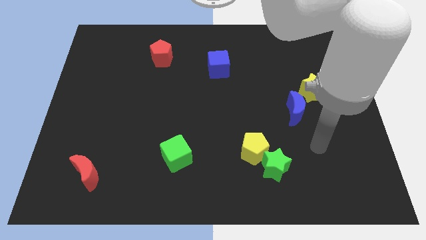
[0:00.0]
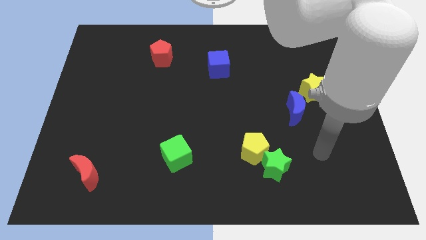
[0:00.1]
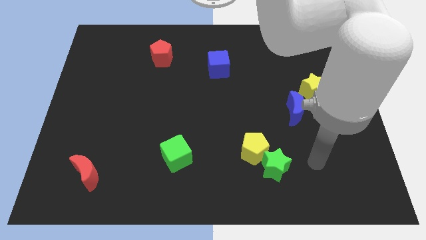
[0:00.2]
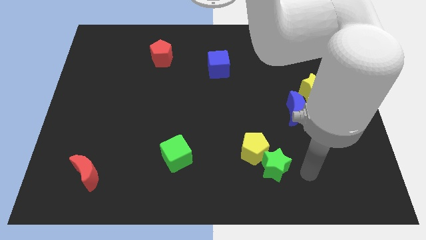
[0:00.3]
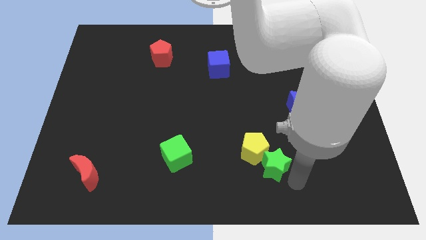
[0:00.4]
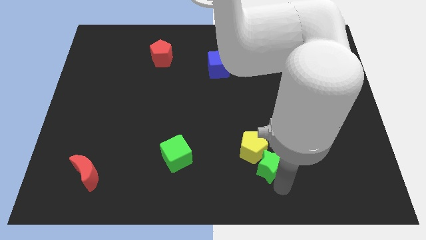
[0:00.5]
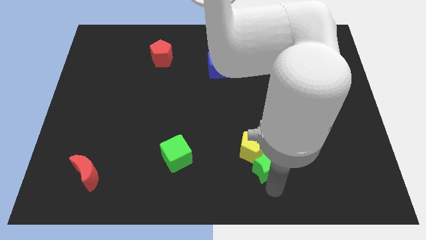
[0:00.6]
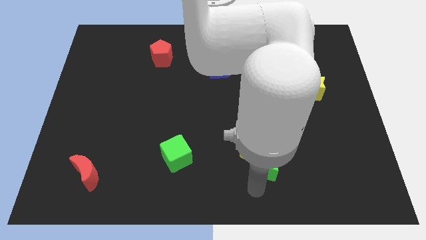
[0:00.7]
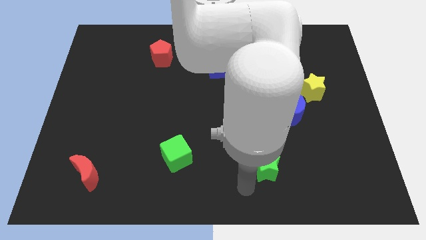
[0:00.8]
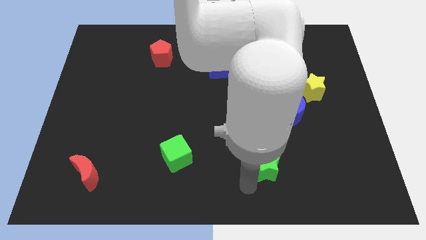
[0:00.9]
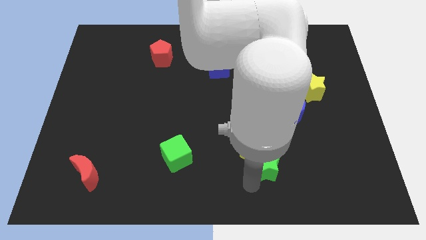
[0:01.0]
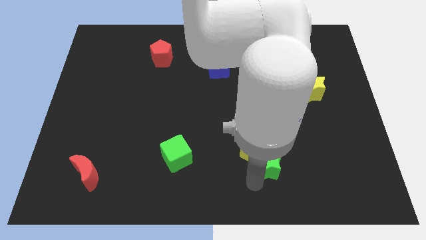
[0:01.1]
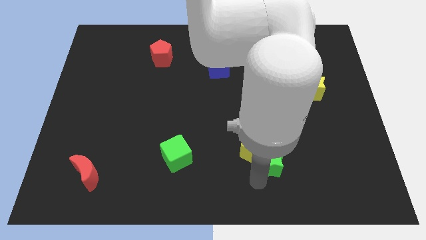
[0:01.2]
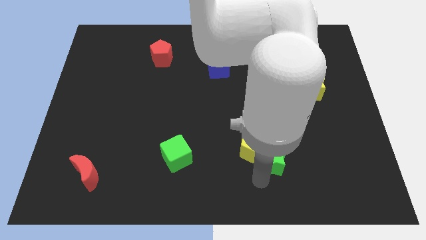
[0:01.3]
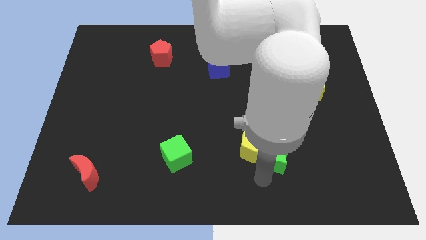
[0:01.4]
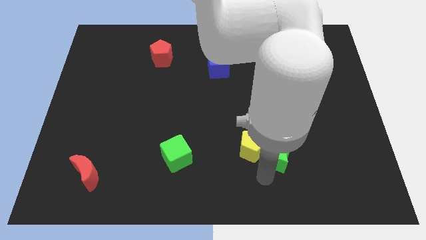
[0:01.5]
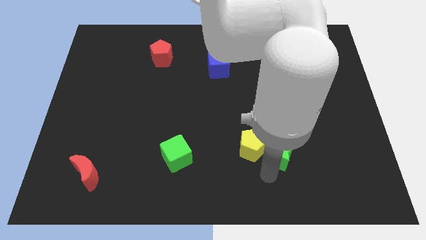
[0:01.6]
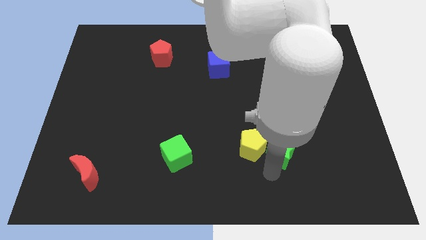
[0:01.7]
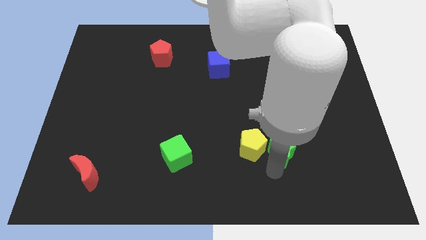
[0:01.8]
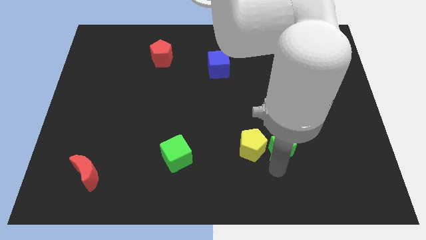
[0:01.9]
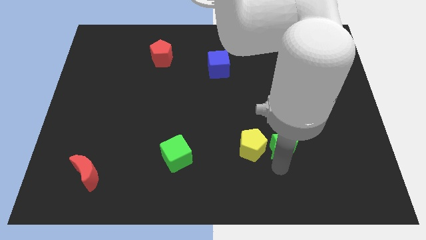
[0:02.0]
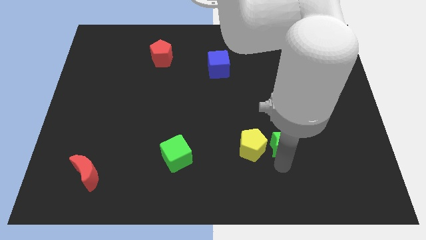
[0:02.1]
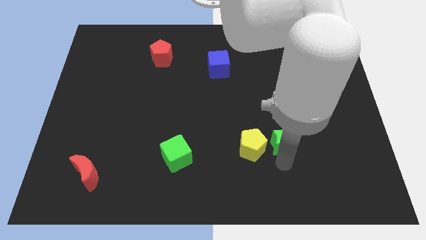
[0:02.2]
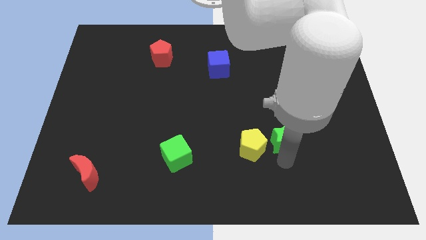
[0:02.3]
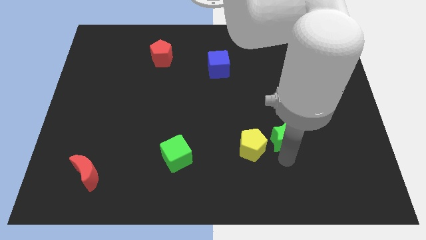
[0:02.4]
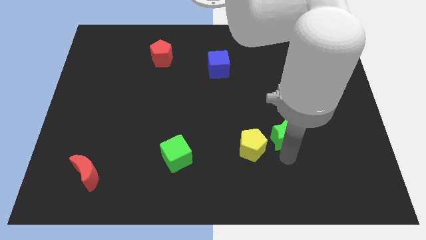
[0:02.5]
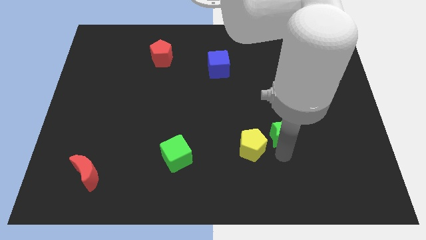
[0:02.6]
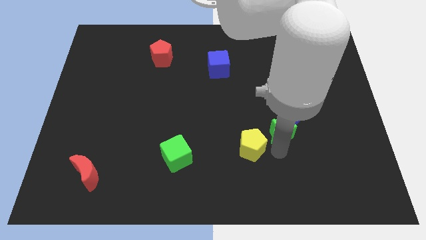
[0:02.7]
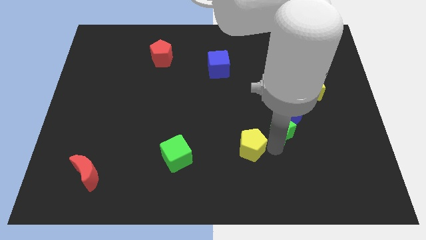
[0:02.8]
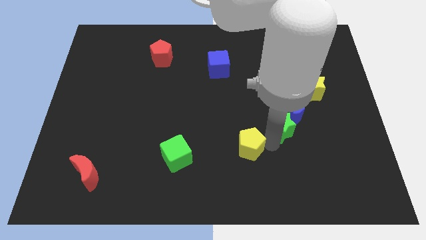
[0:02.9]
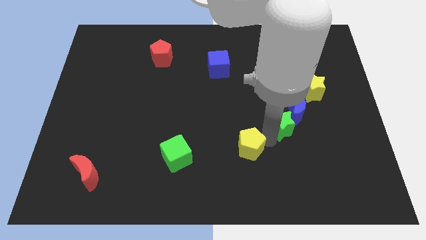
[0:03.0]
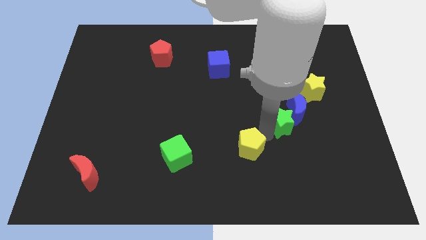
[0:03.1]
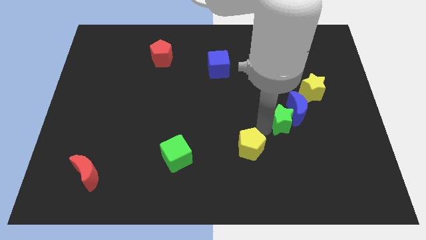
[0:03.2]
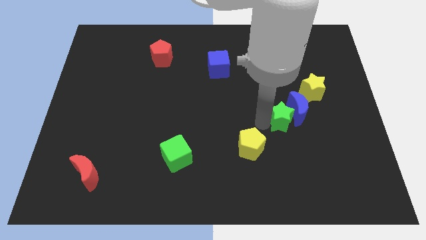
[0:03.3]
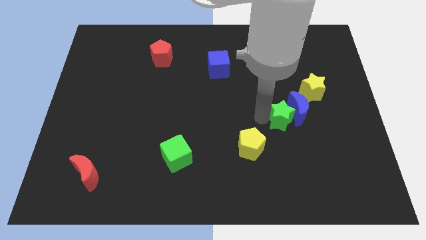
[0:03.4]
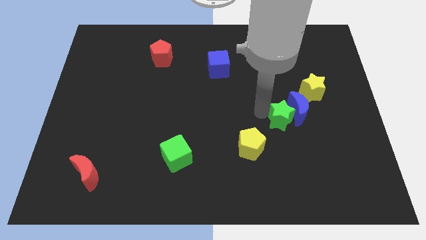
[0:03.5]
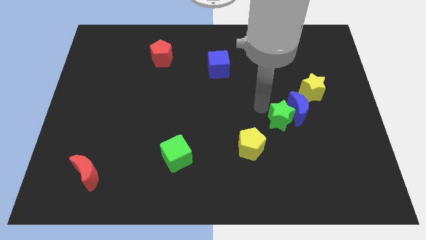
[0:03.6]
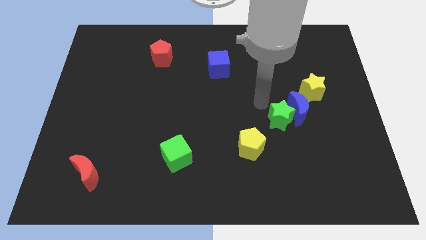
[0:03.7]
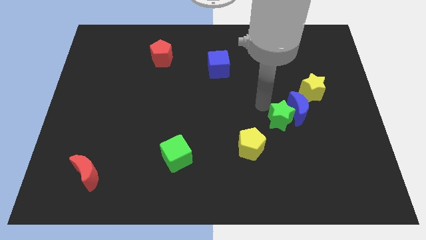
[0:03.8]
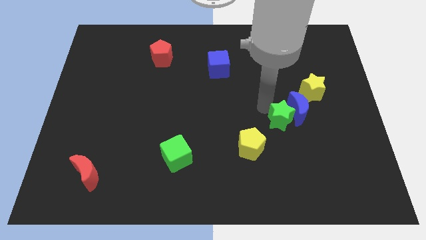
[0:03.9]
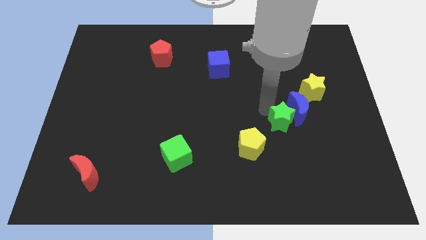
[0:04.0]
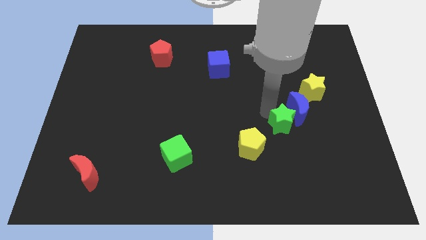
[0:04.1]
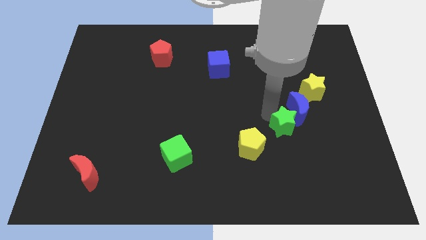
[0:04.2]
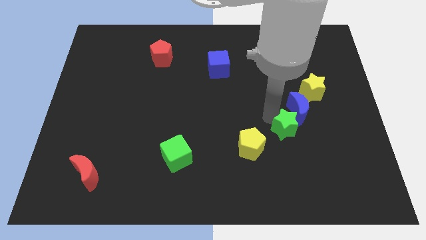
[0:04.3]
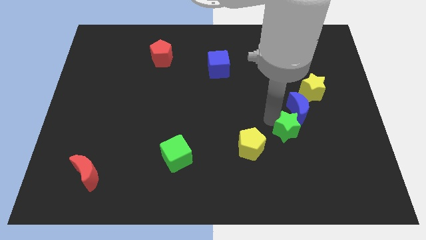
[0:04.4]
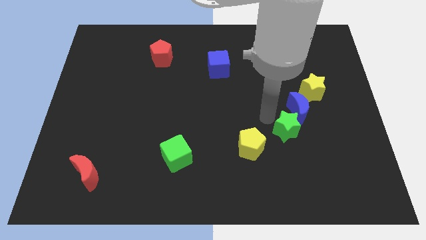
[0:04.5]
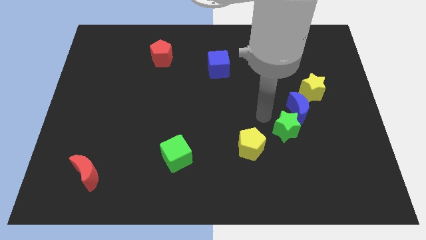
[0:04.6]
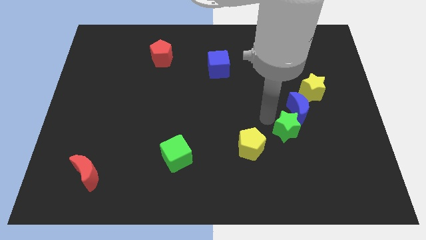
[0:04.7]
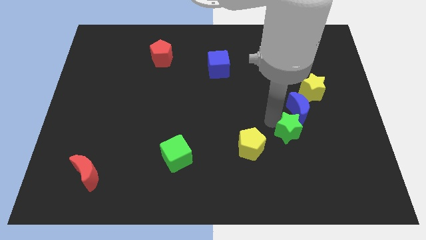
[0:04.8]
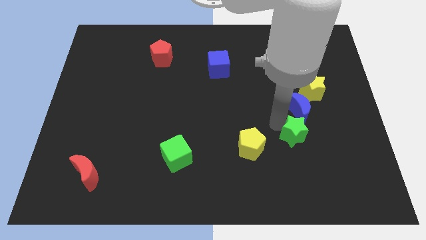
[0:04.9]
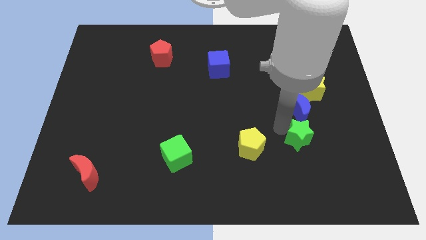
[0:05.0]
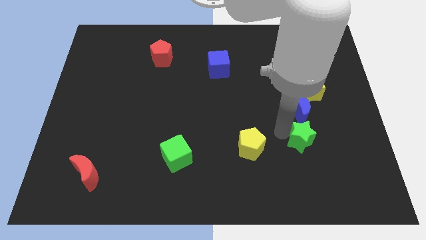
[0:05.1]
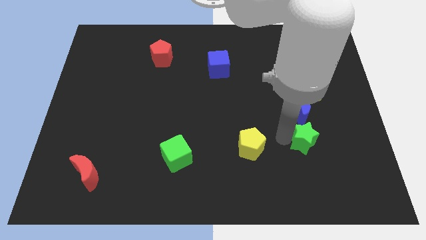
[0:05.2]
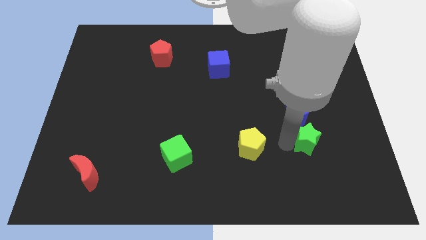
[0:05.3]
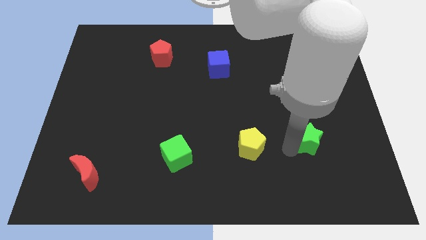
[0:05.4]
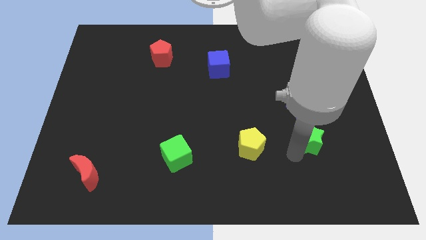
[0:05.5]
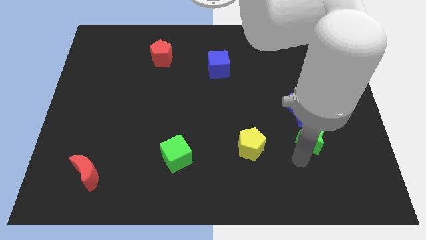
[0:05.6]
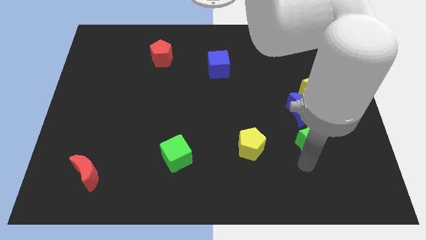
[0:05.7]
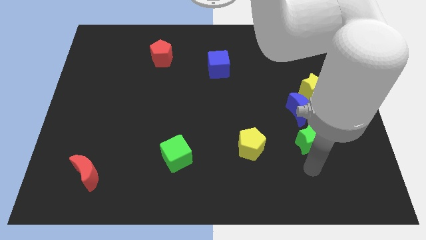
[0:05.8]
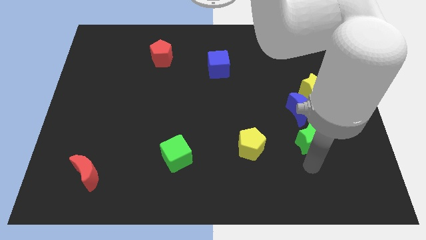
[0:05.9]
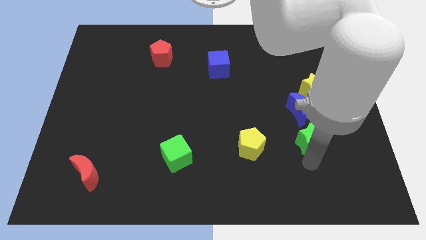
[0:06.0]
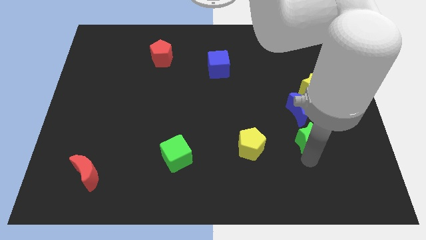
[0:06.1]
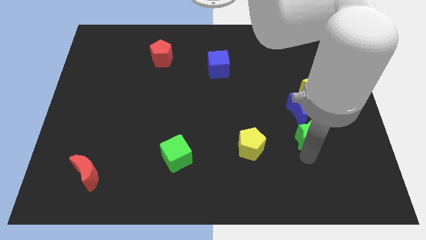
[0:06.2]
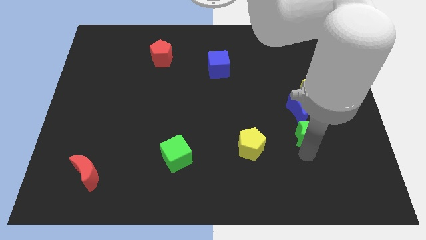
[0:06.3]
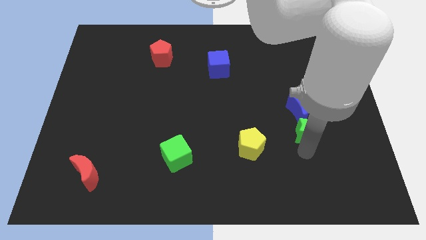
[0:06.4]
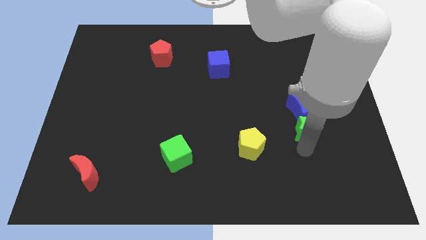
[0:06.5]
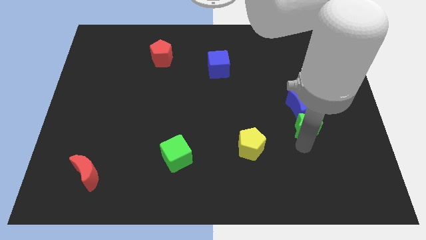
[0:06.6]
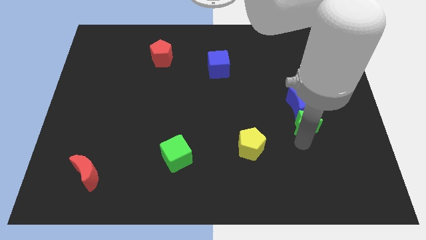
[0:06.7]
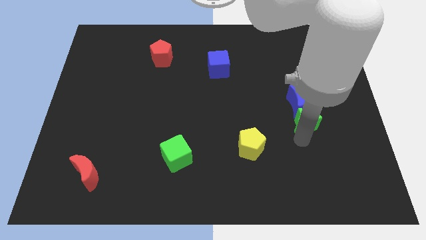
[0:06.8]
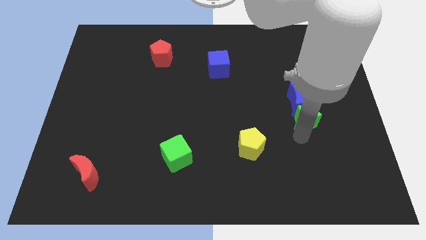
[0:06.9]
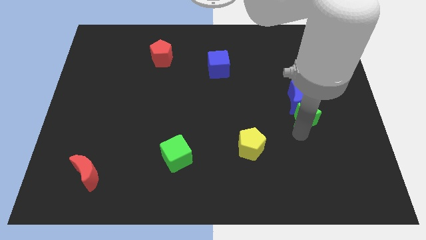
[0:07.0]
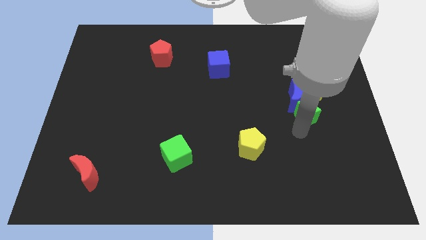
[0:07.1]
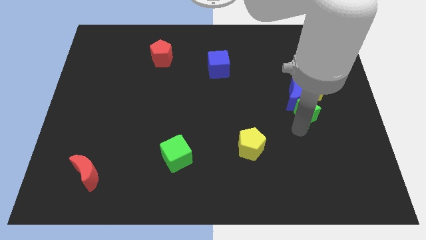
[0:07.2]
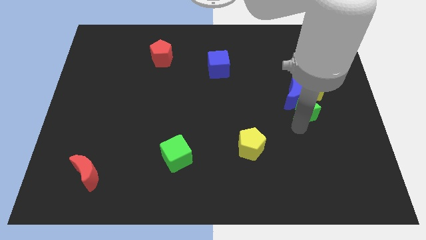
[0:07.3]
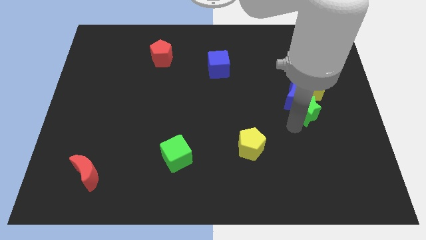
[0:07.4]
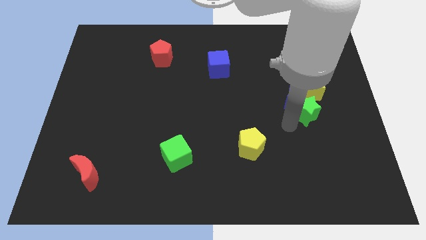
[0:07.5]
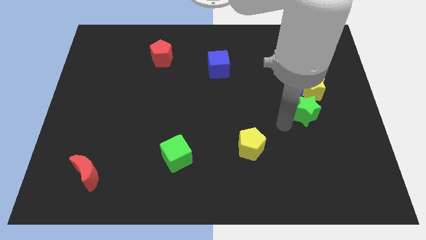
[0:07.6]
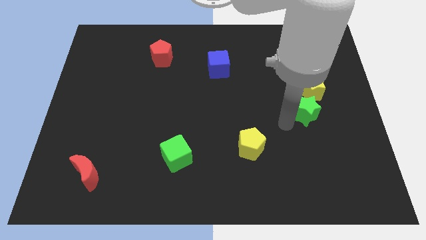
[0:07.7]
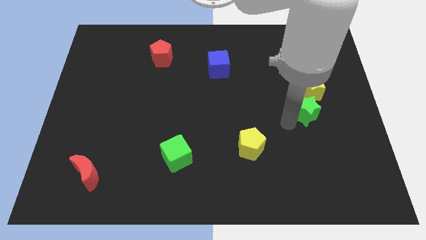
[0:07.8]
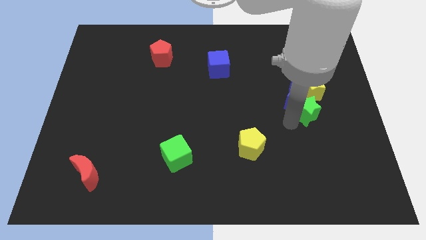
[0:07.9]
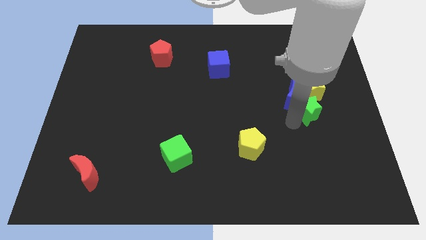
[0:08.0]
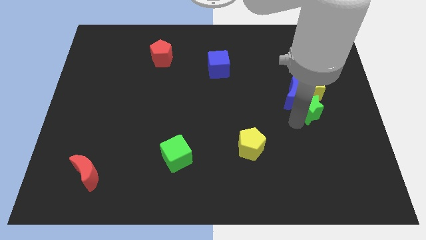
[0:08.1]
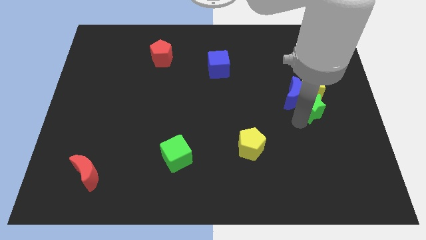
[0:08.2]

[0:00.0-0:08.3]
slide the green star next to the yellow star

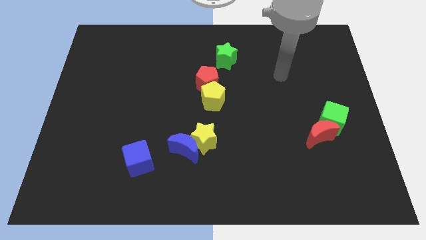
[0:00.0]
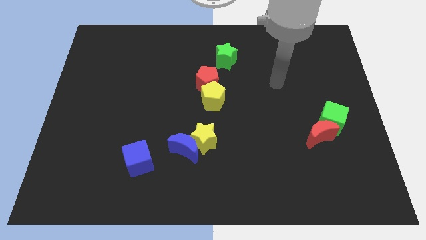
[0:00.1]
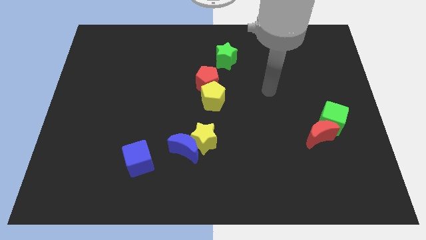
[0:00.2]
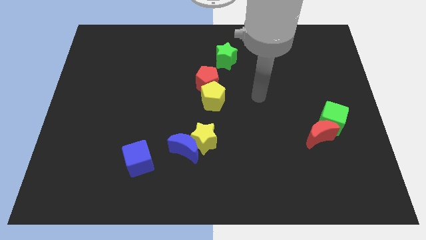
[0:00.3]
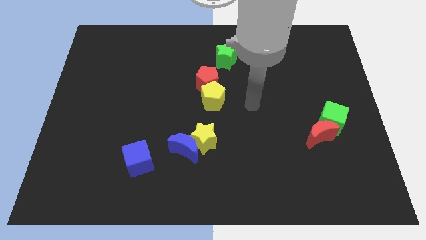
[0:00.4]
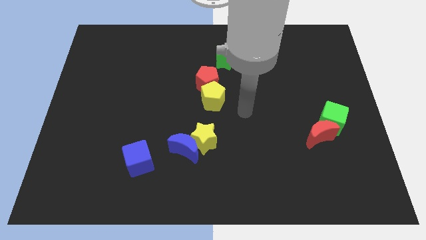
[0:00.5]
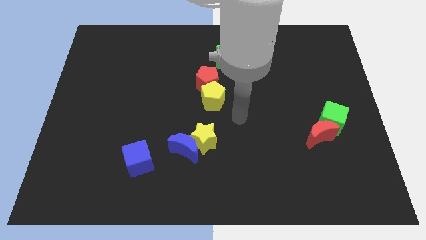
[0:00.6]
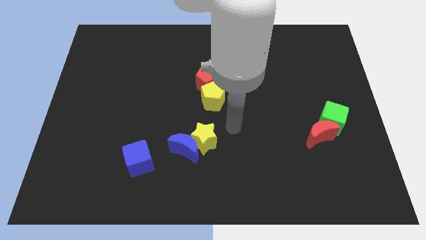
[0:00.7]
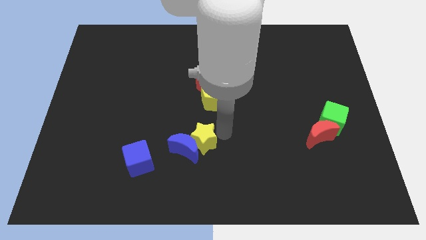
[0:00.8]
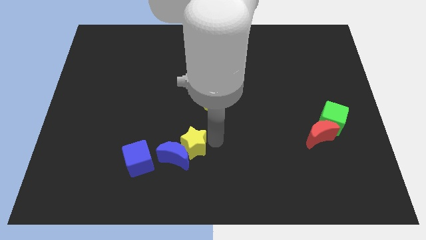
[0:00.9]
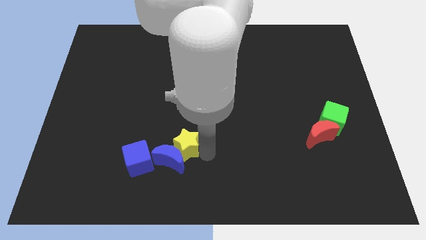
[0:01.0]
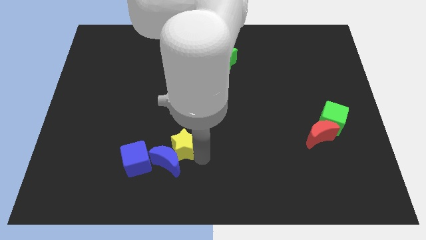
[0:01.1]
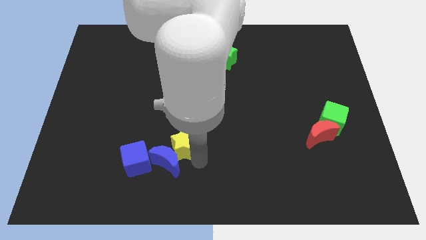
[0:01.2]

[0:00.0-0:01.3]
slide the blue moon to the blue cube
